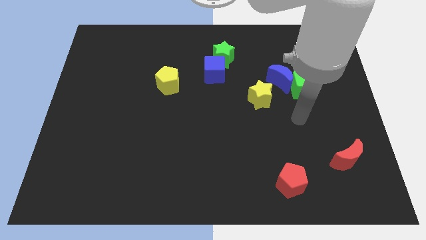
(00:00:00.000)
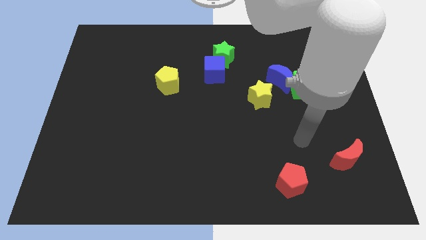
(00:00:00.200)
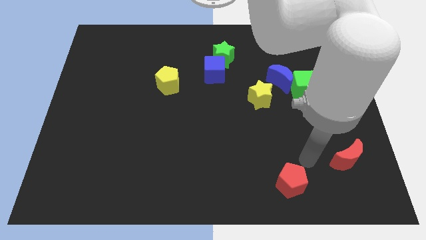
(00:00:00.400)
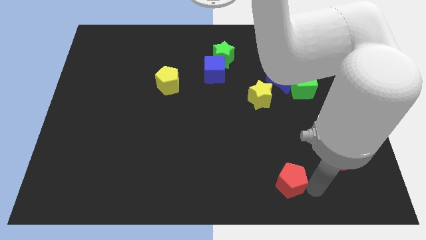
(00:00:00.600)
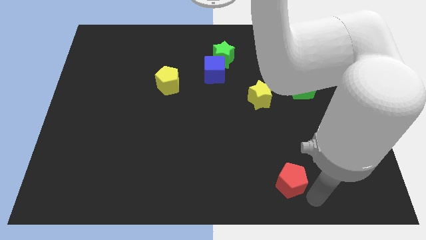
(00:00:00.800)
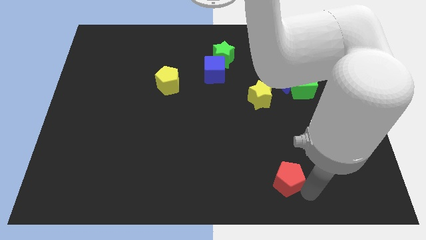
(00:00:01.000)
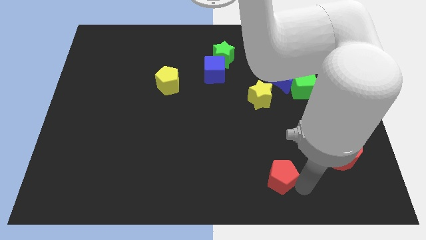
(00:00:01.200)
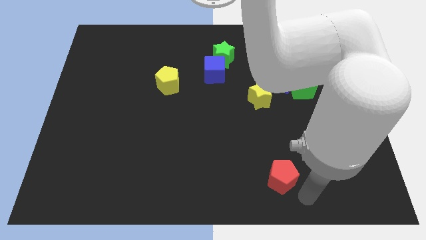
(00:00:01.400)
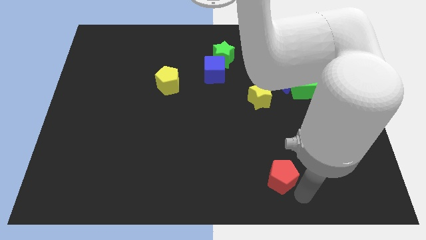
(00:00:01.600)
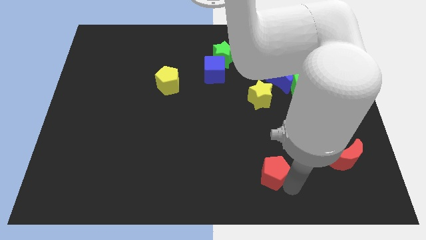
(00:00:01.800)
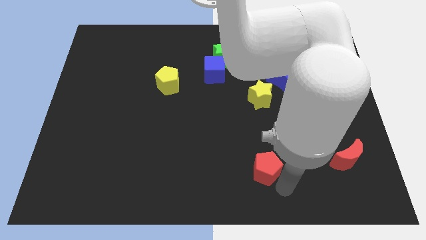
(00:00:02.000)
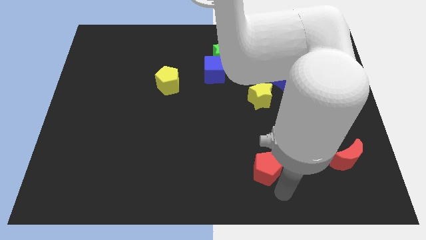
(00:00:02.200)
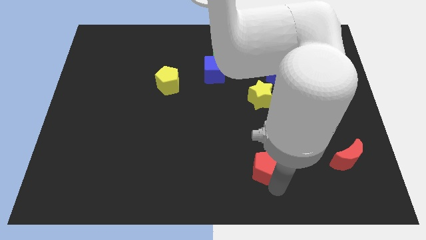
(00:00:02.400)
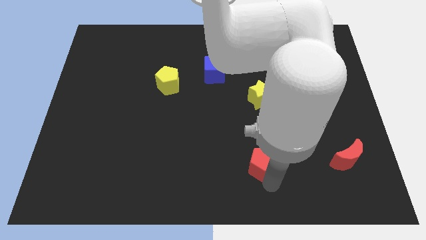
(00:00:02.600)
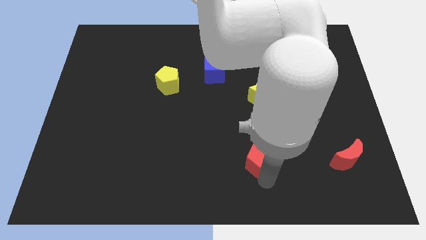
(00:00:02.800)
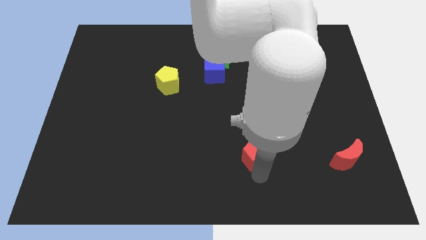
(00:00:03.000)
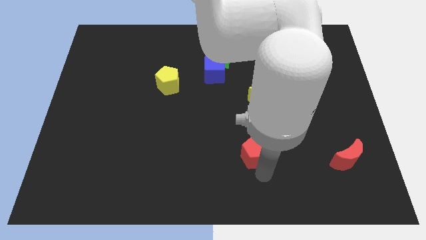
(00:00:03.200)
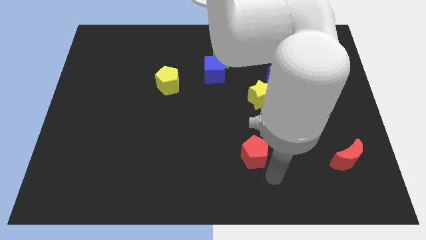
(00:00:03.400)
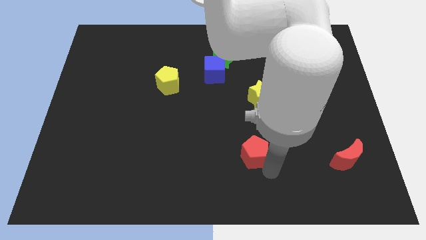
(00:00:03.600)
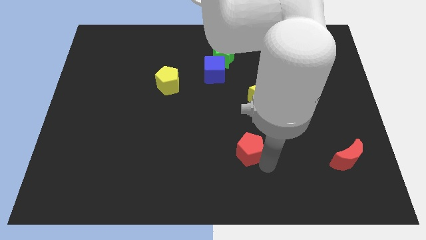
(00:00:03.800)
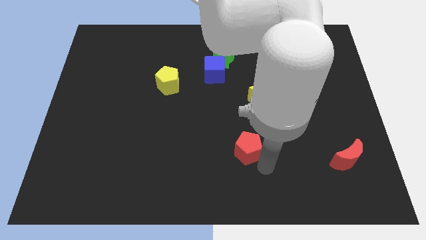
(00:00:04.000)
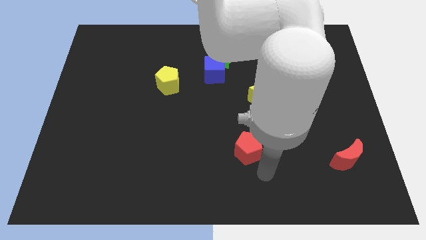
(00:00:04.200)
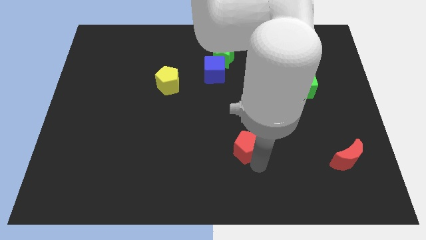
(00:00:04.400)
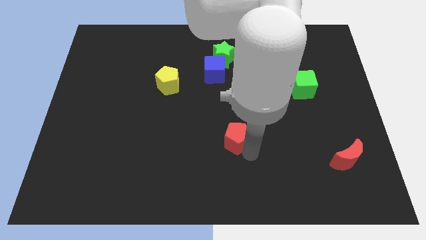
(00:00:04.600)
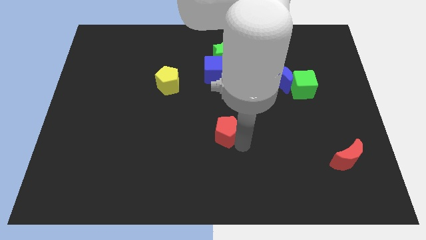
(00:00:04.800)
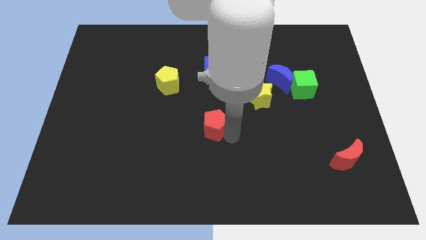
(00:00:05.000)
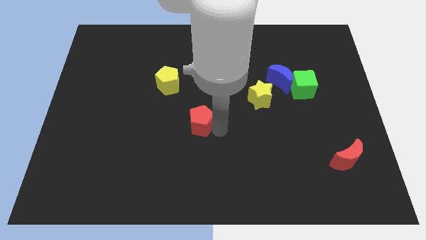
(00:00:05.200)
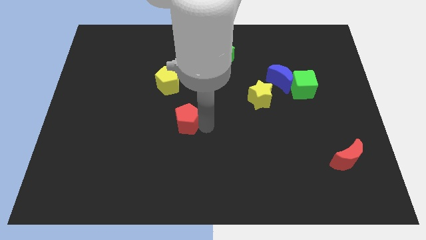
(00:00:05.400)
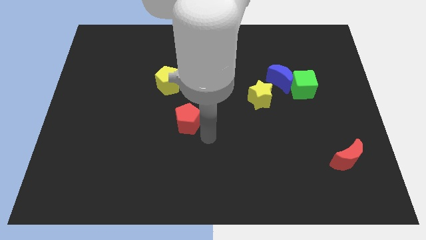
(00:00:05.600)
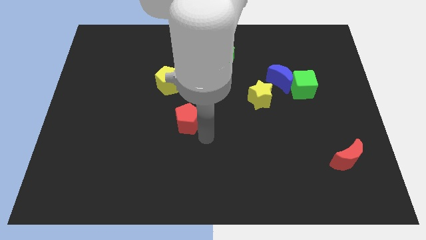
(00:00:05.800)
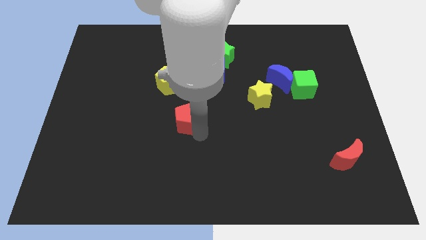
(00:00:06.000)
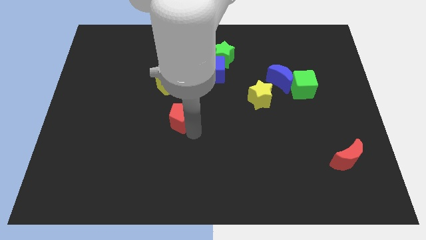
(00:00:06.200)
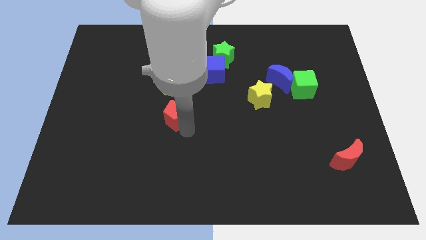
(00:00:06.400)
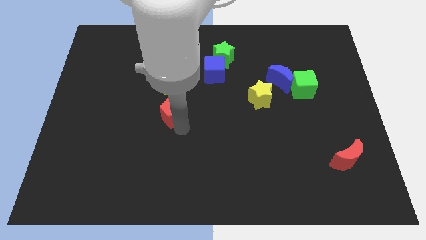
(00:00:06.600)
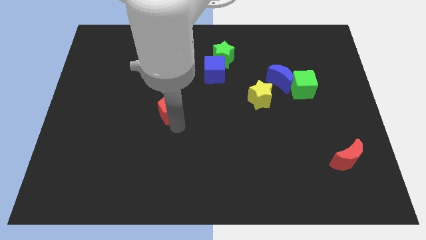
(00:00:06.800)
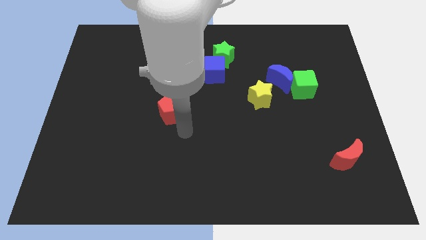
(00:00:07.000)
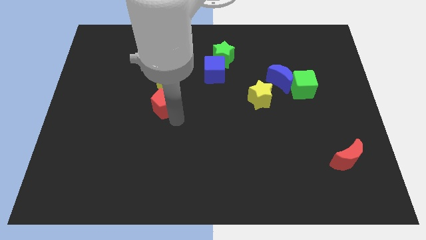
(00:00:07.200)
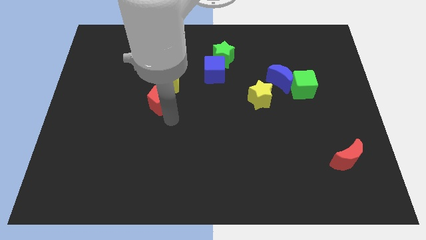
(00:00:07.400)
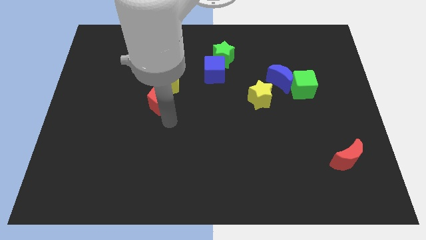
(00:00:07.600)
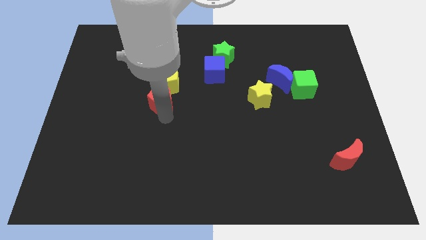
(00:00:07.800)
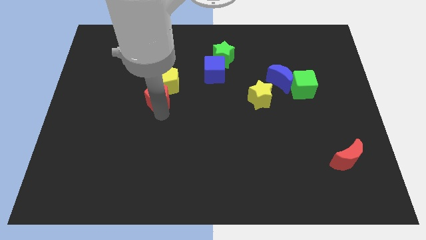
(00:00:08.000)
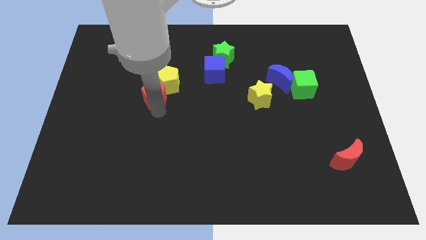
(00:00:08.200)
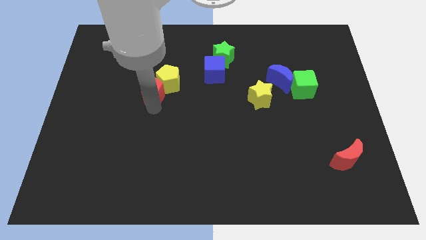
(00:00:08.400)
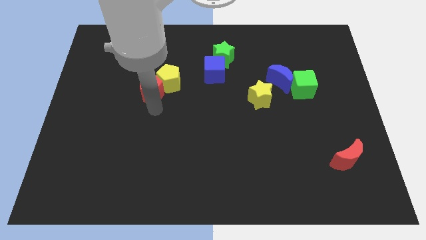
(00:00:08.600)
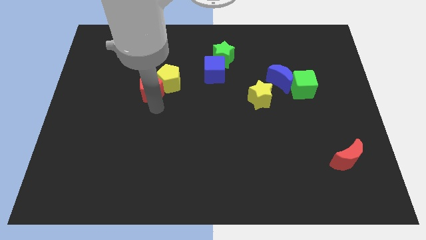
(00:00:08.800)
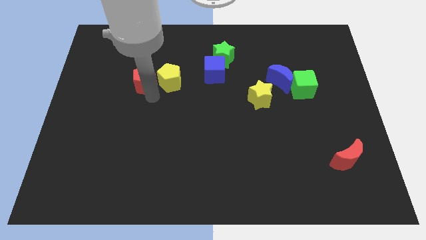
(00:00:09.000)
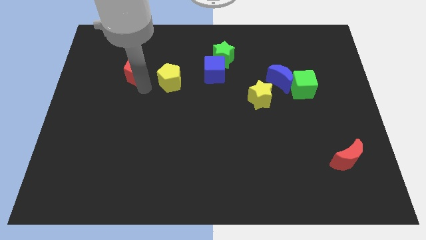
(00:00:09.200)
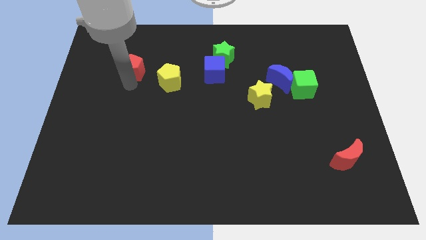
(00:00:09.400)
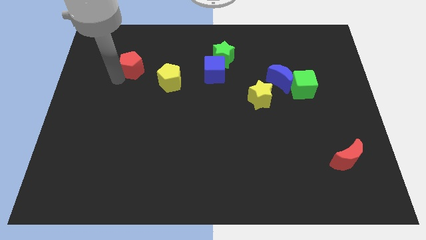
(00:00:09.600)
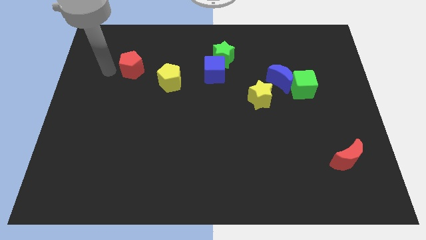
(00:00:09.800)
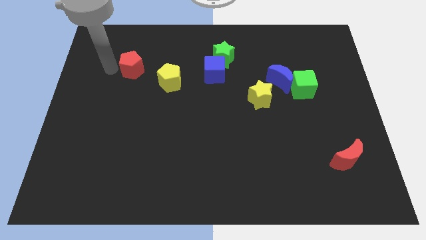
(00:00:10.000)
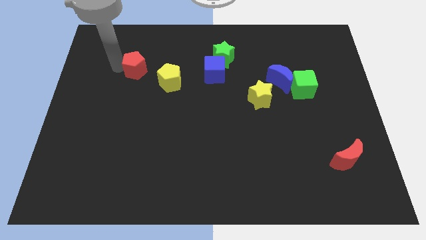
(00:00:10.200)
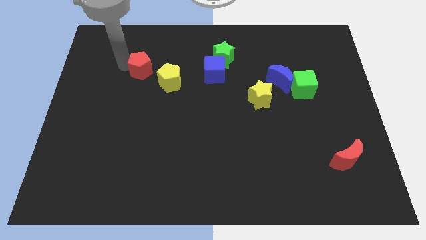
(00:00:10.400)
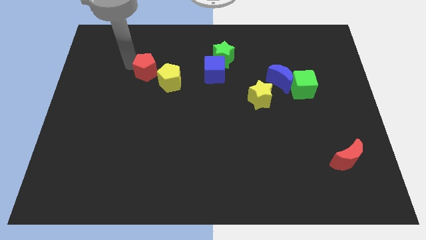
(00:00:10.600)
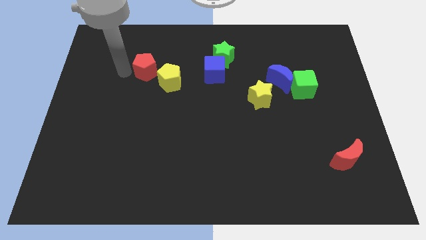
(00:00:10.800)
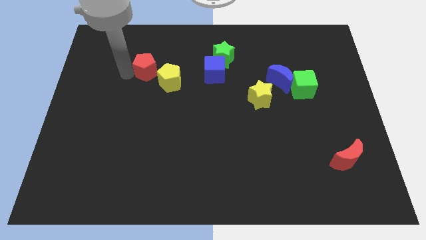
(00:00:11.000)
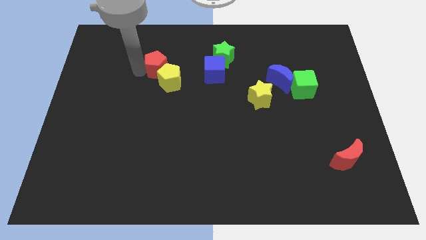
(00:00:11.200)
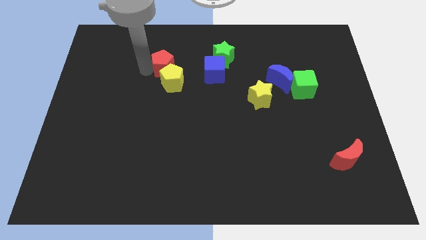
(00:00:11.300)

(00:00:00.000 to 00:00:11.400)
push the red pentagon just left of the green star

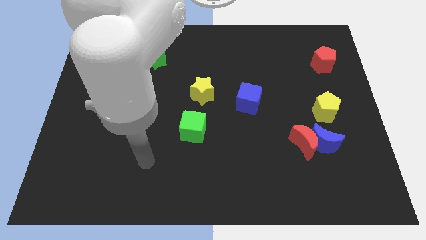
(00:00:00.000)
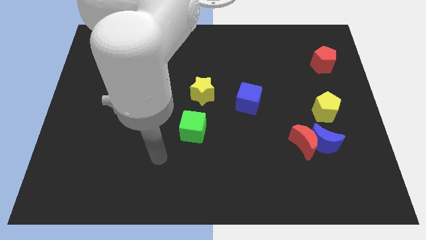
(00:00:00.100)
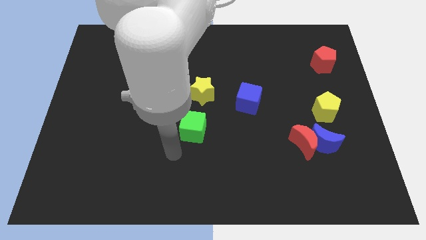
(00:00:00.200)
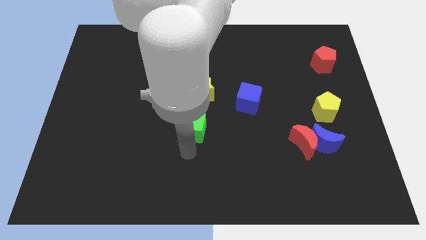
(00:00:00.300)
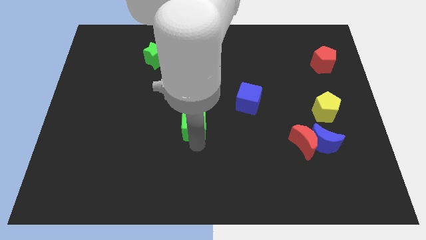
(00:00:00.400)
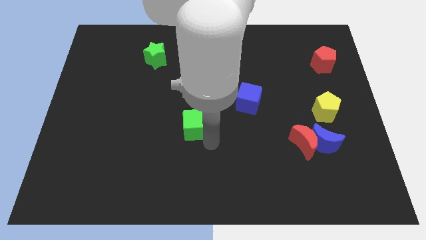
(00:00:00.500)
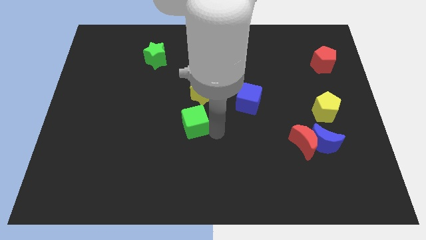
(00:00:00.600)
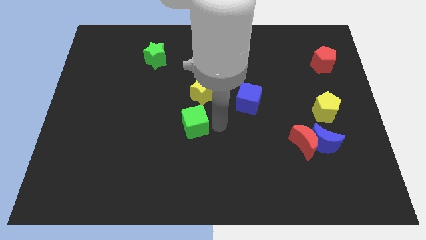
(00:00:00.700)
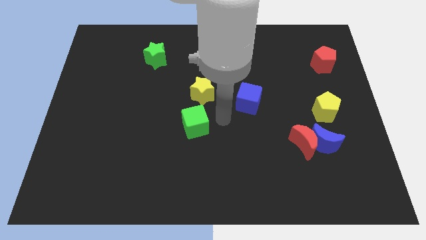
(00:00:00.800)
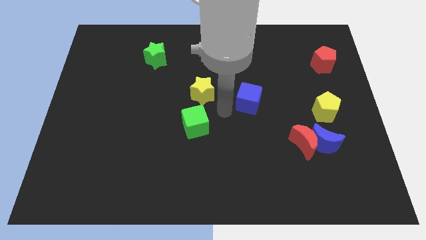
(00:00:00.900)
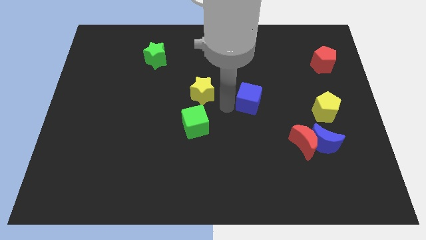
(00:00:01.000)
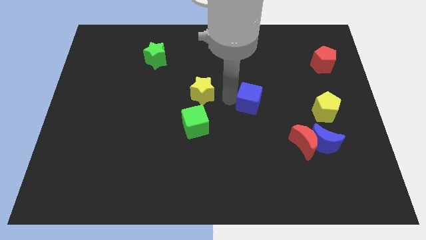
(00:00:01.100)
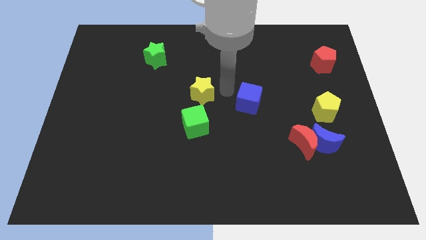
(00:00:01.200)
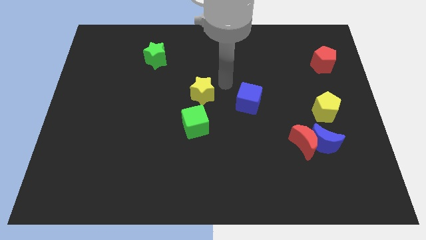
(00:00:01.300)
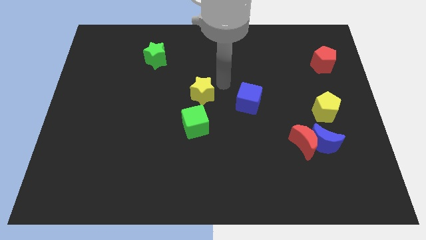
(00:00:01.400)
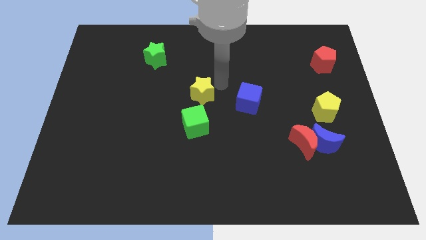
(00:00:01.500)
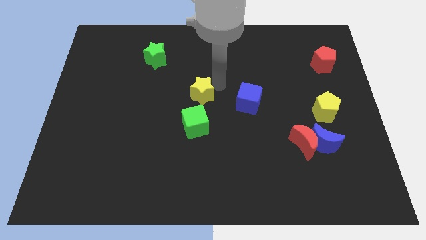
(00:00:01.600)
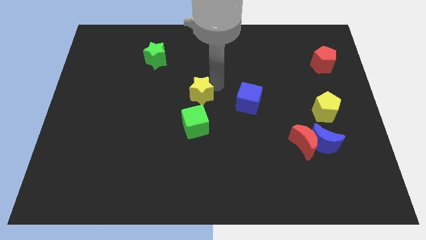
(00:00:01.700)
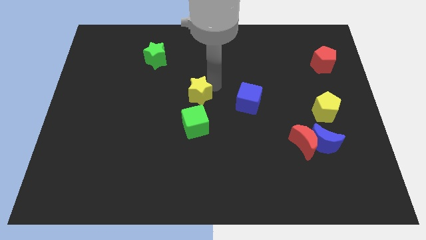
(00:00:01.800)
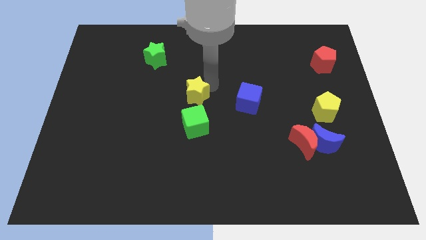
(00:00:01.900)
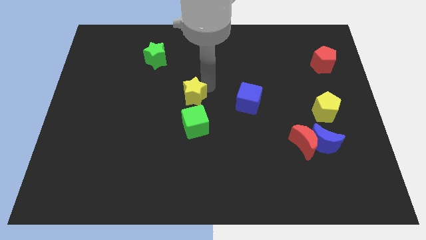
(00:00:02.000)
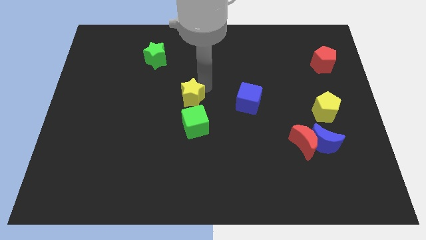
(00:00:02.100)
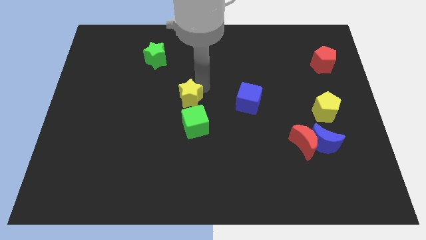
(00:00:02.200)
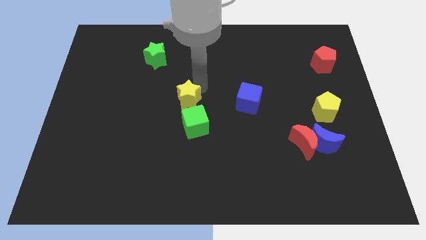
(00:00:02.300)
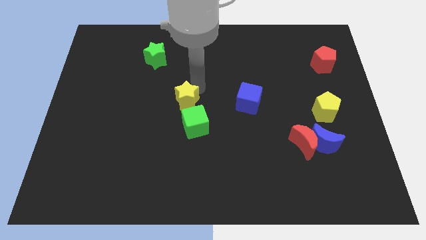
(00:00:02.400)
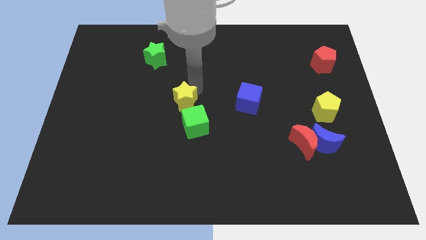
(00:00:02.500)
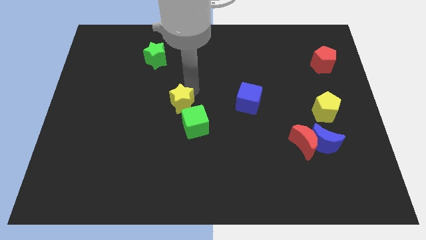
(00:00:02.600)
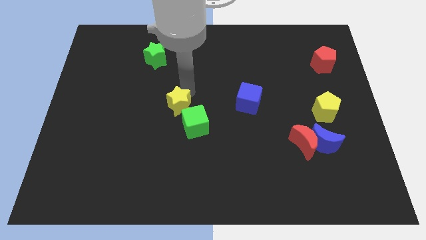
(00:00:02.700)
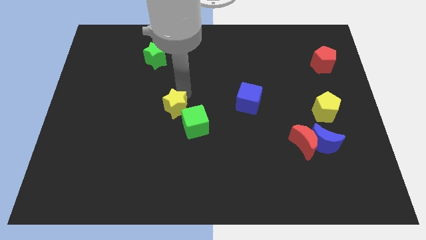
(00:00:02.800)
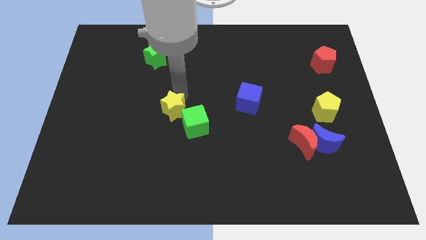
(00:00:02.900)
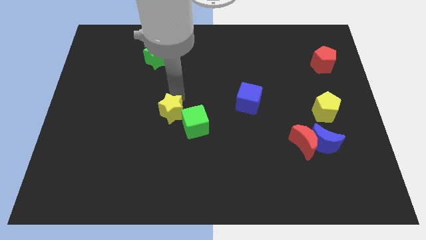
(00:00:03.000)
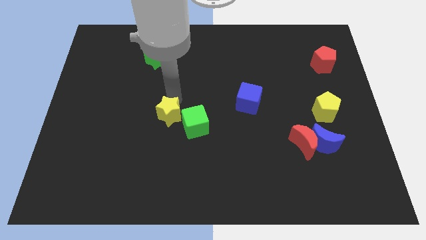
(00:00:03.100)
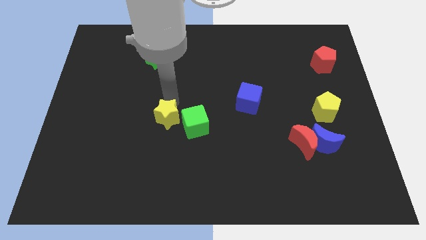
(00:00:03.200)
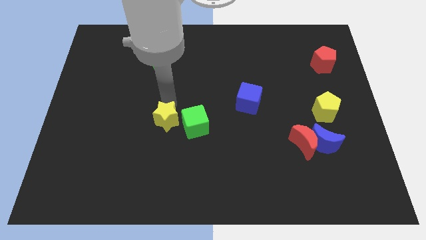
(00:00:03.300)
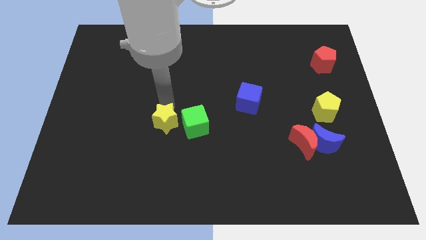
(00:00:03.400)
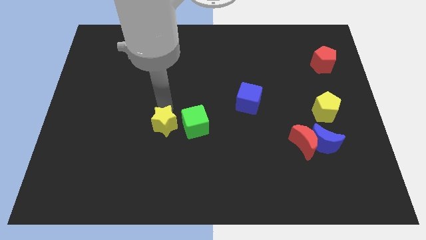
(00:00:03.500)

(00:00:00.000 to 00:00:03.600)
slide the yellow star diagonally down and to the left of the green cube
